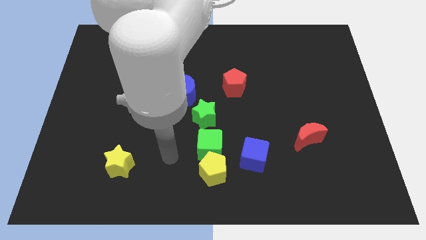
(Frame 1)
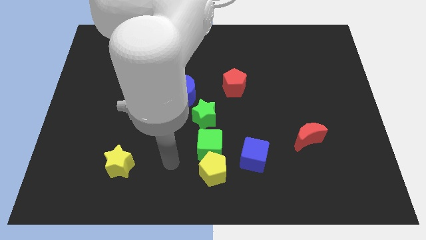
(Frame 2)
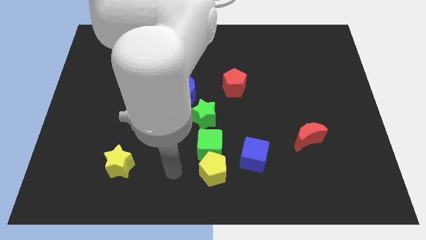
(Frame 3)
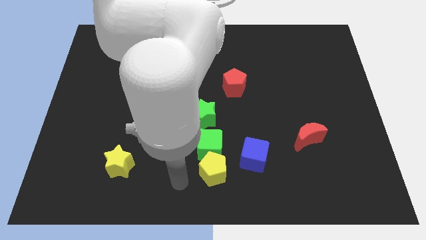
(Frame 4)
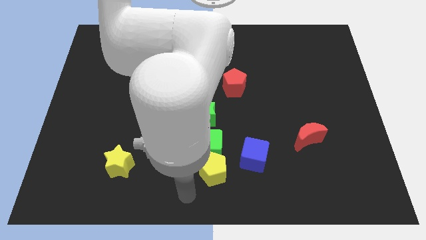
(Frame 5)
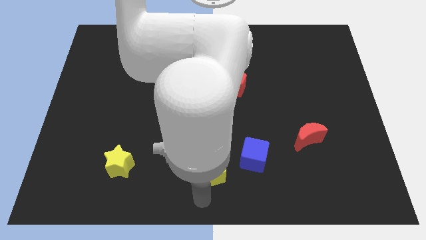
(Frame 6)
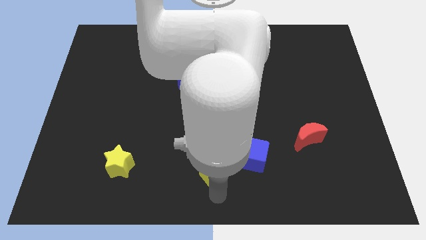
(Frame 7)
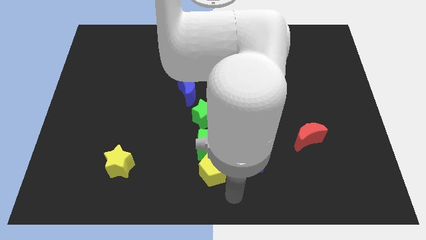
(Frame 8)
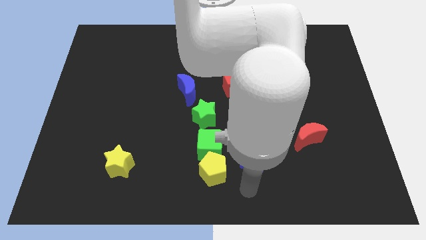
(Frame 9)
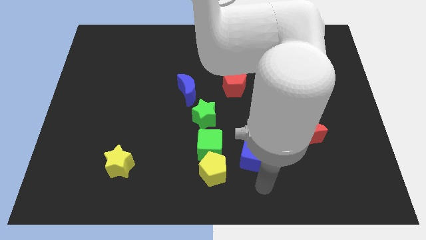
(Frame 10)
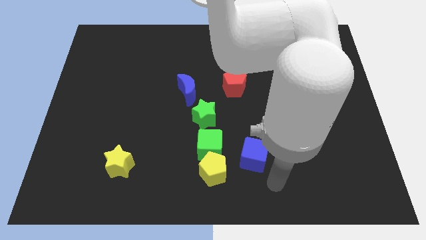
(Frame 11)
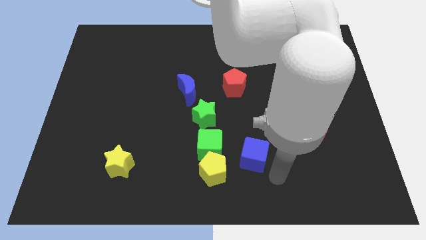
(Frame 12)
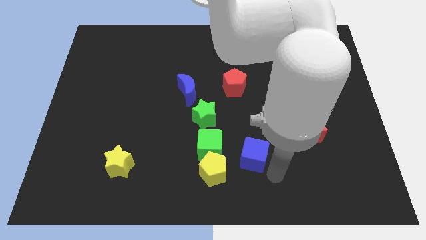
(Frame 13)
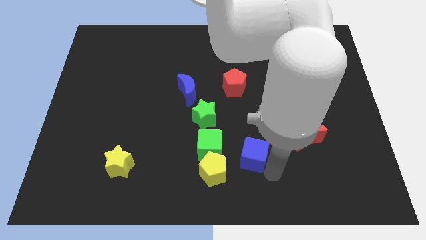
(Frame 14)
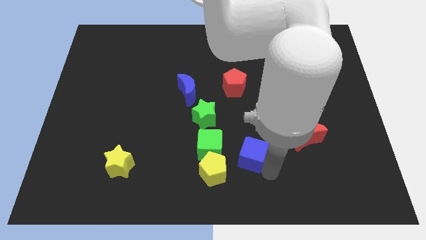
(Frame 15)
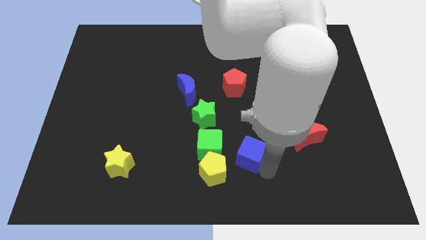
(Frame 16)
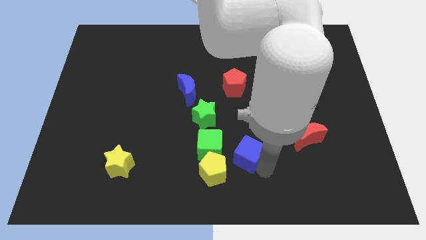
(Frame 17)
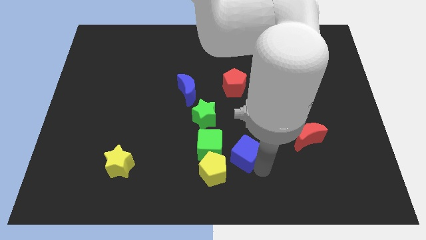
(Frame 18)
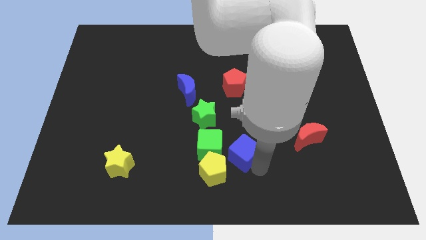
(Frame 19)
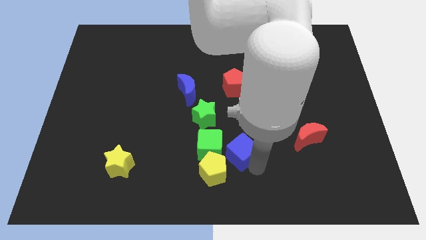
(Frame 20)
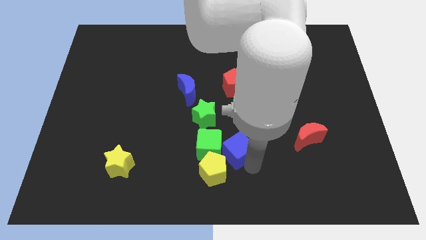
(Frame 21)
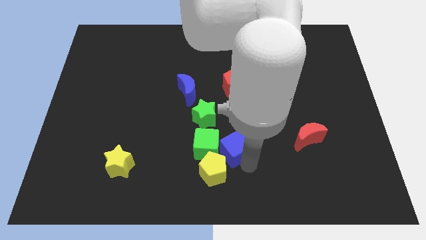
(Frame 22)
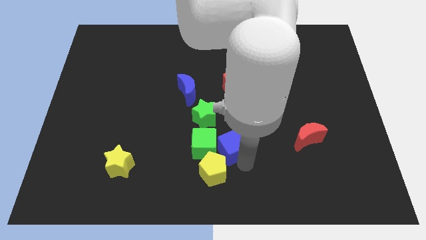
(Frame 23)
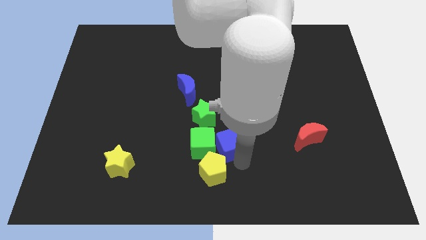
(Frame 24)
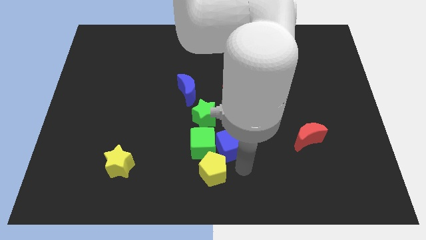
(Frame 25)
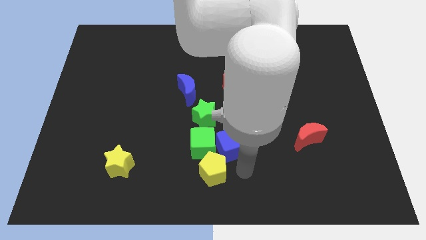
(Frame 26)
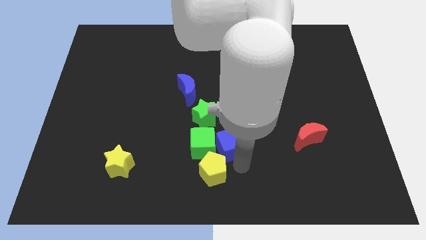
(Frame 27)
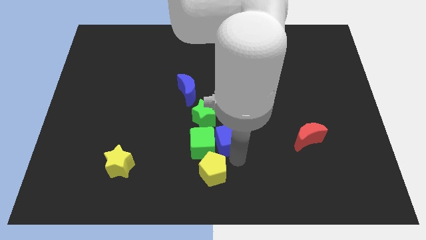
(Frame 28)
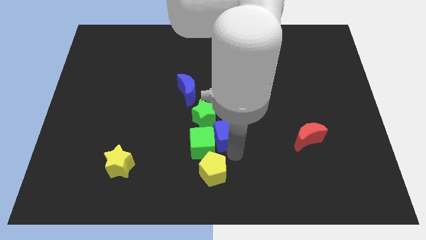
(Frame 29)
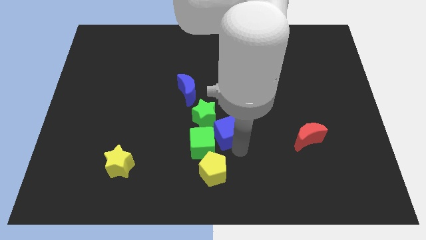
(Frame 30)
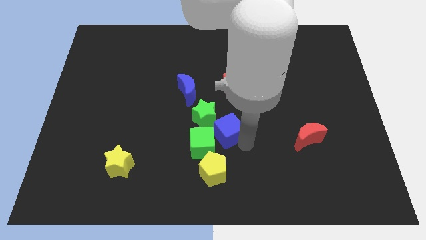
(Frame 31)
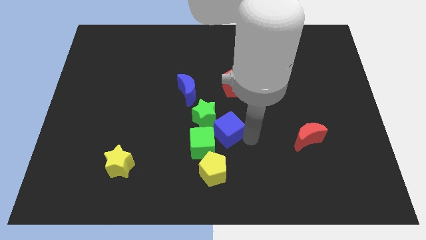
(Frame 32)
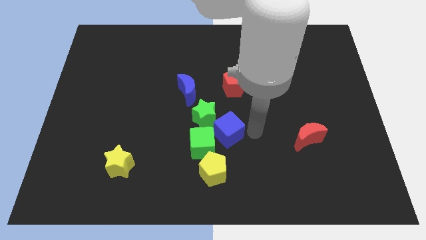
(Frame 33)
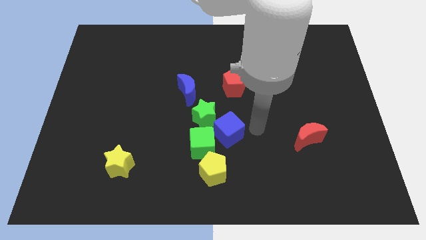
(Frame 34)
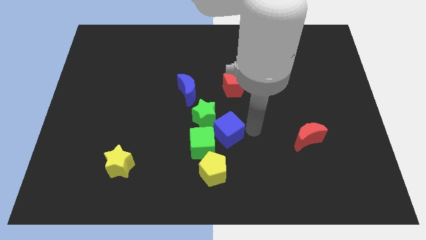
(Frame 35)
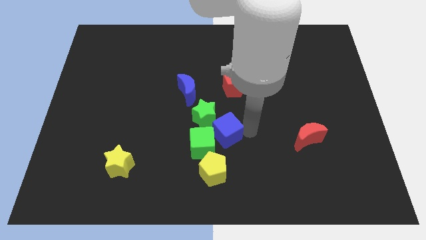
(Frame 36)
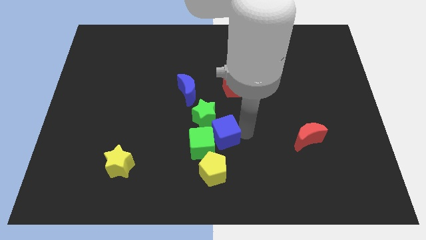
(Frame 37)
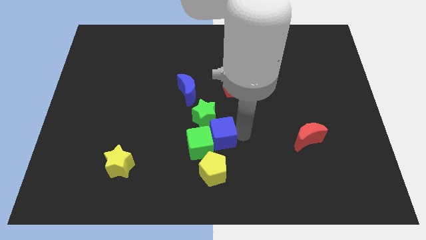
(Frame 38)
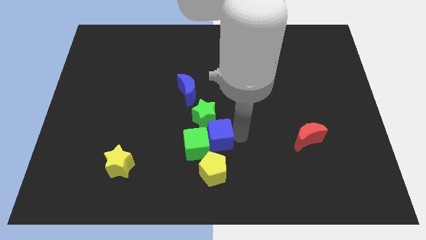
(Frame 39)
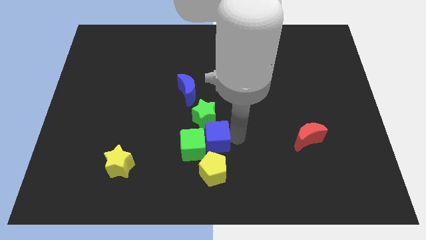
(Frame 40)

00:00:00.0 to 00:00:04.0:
slide the blue cube a bit left

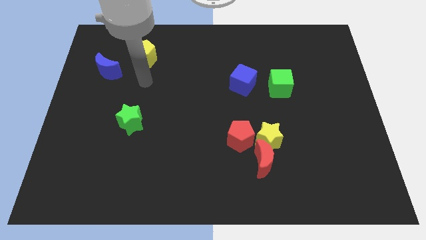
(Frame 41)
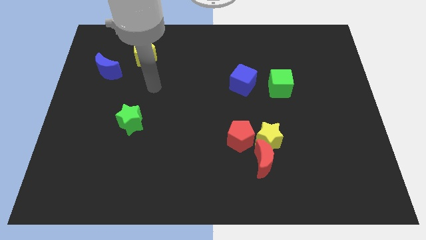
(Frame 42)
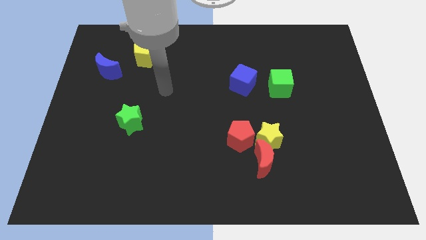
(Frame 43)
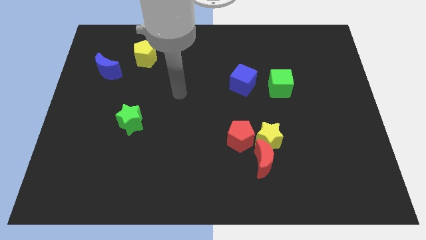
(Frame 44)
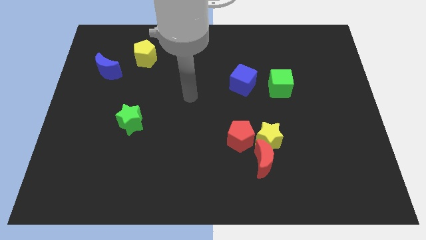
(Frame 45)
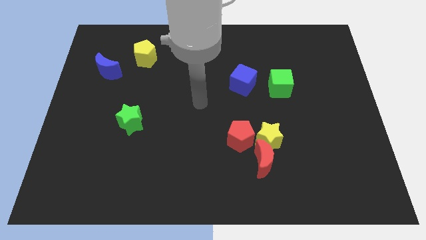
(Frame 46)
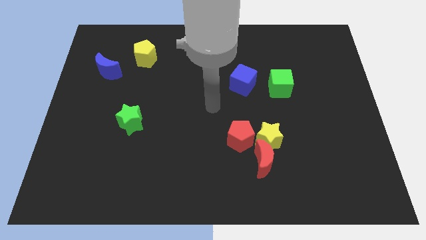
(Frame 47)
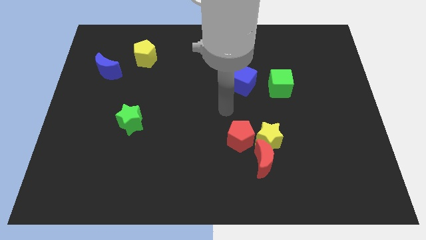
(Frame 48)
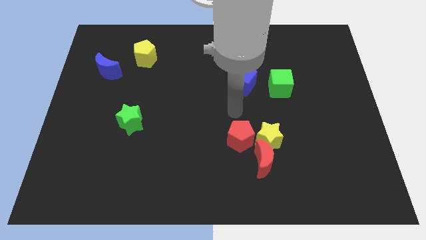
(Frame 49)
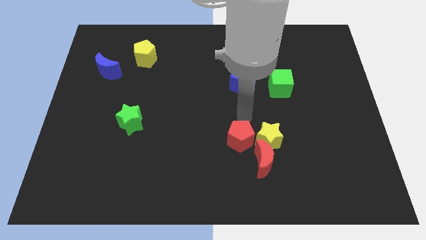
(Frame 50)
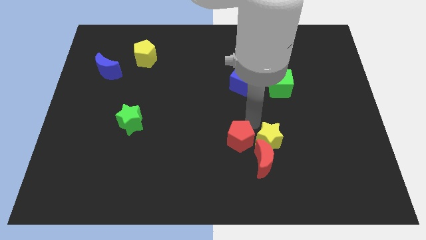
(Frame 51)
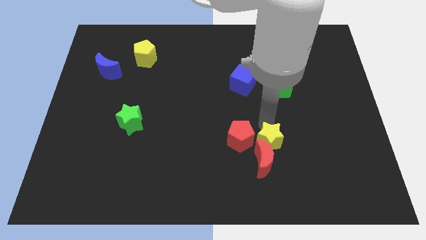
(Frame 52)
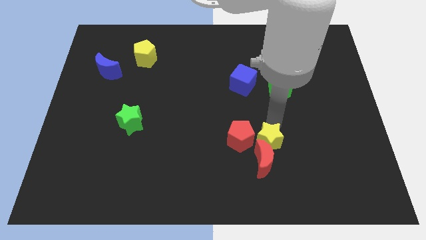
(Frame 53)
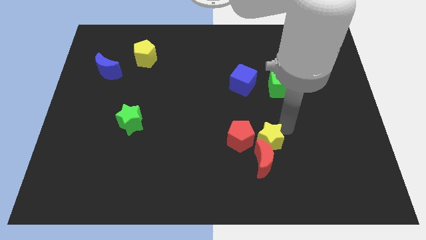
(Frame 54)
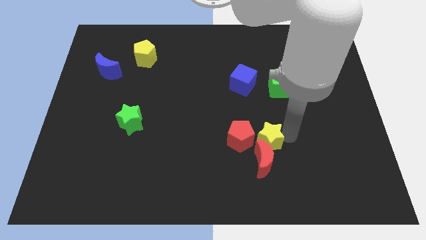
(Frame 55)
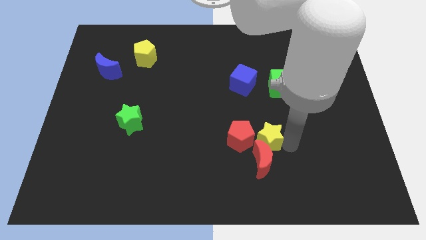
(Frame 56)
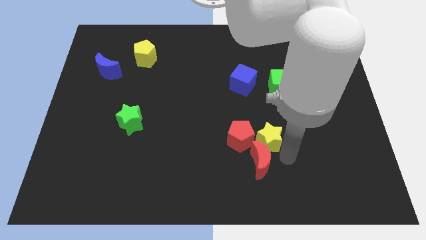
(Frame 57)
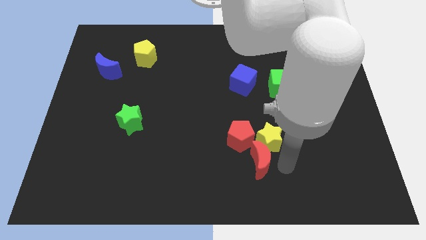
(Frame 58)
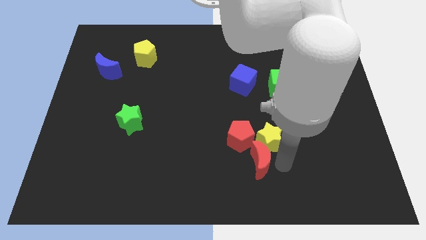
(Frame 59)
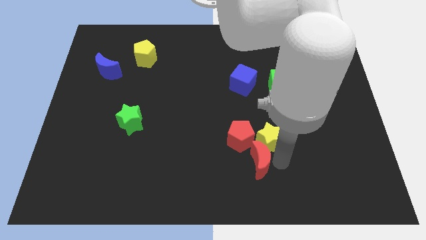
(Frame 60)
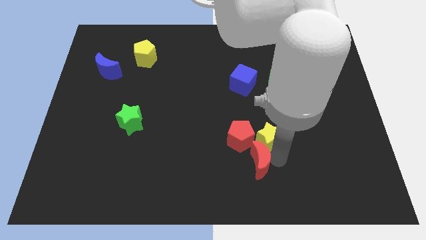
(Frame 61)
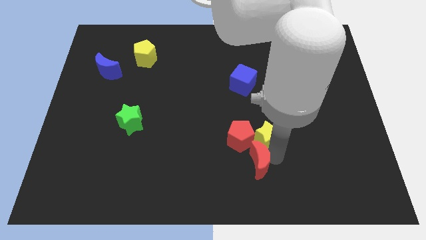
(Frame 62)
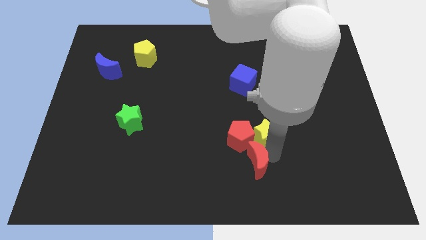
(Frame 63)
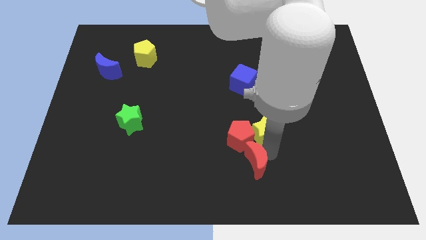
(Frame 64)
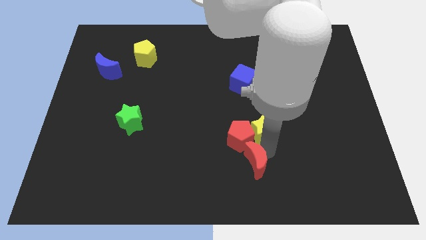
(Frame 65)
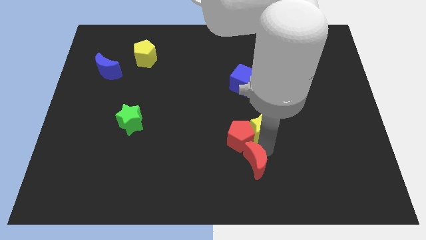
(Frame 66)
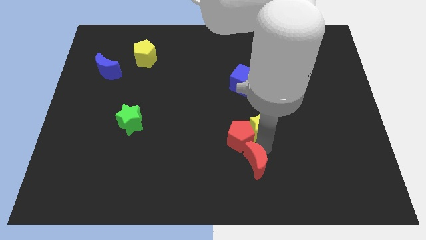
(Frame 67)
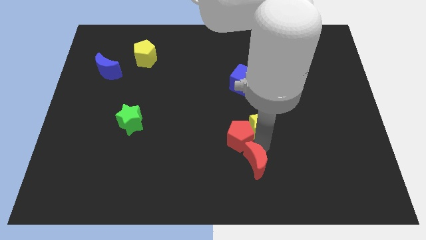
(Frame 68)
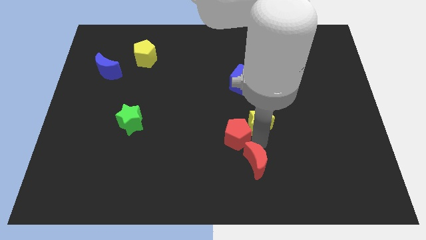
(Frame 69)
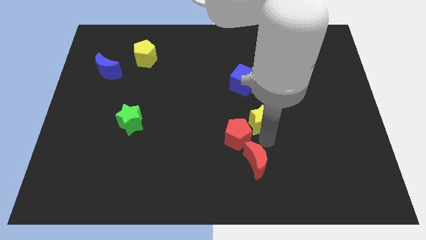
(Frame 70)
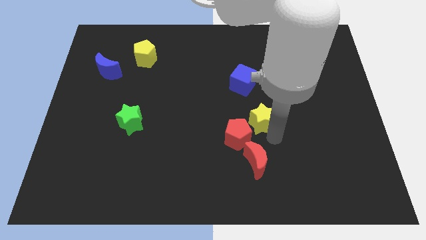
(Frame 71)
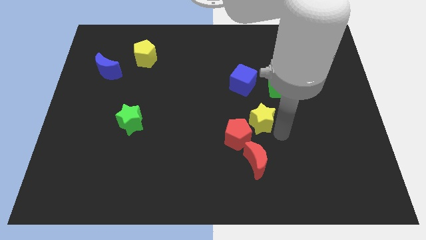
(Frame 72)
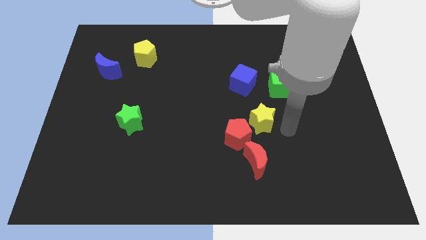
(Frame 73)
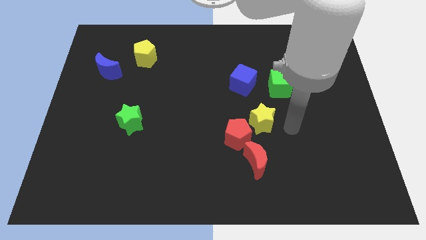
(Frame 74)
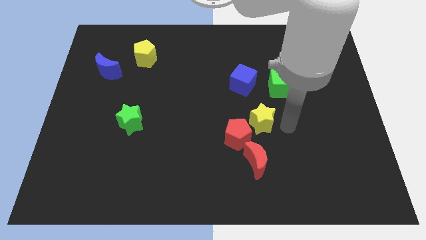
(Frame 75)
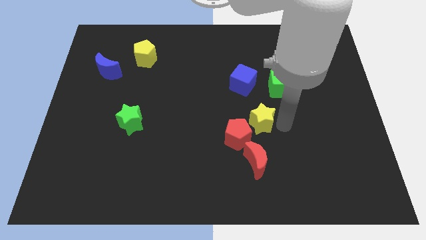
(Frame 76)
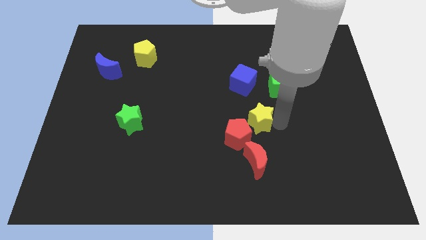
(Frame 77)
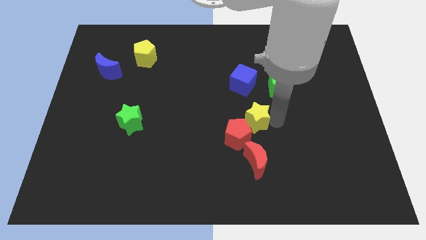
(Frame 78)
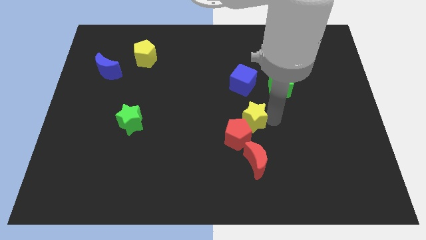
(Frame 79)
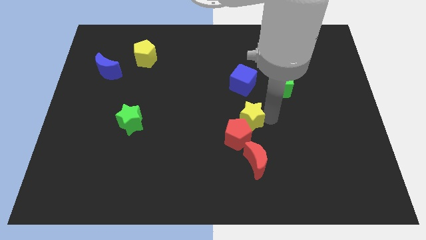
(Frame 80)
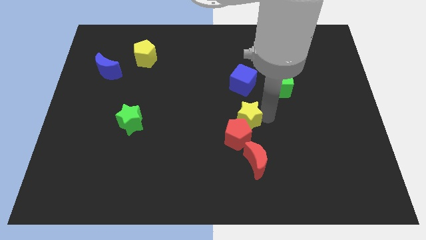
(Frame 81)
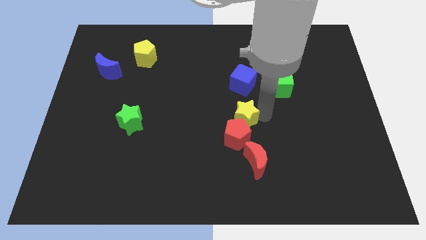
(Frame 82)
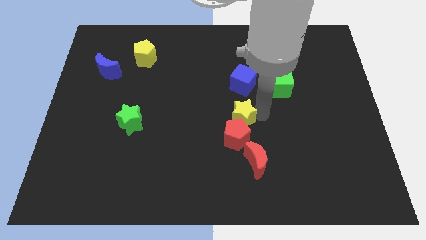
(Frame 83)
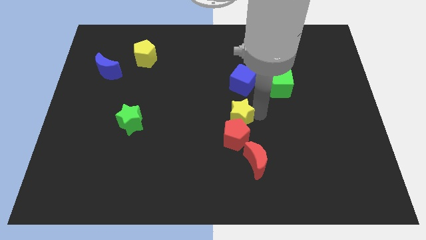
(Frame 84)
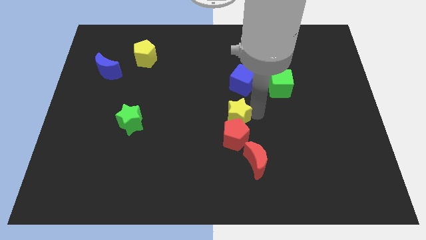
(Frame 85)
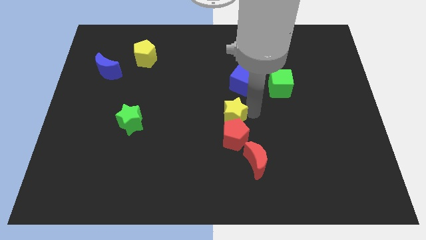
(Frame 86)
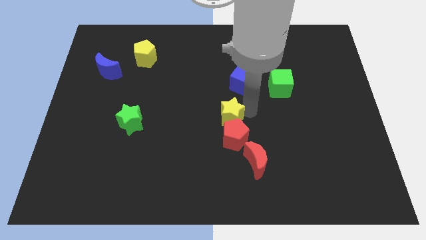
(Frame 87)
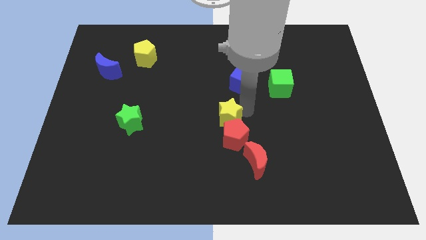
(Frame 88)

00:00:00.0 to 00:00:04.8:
slightly move the yellow star to the left
